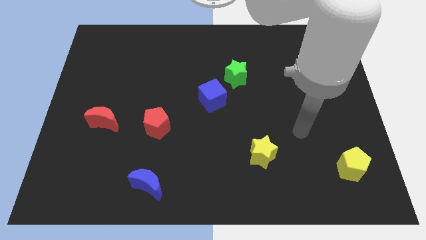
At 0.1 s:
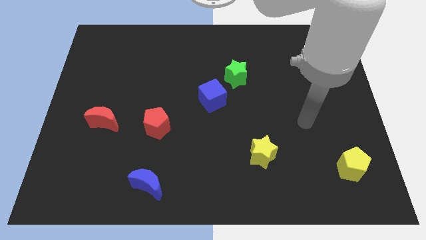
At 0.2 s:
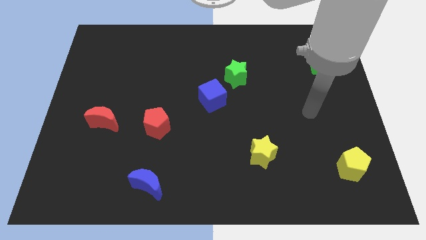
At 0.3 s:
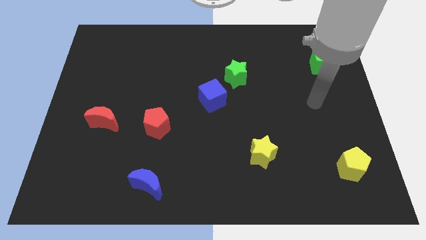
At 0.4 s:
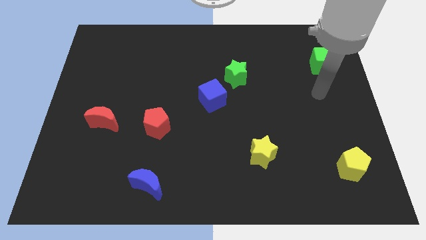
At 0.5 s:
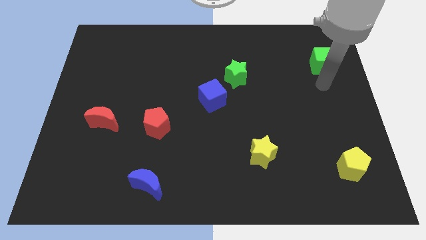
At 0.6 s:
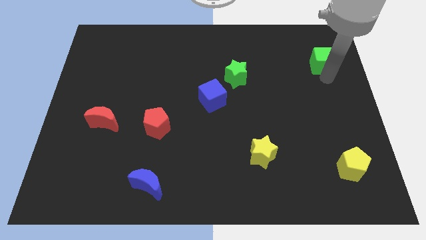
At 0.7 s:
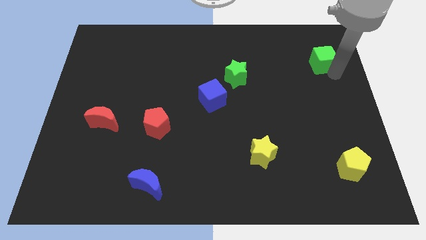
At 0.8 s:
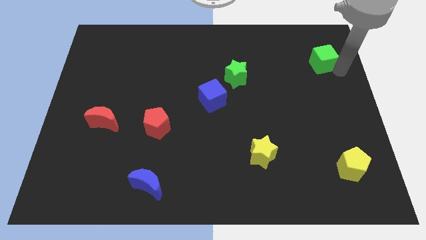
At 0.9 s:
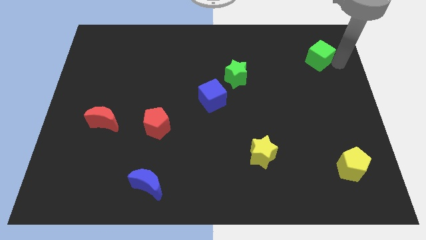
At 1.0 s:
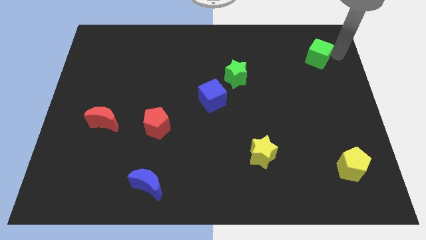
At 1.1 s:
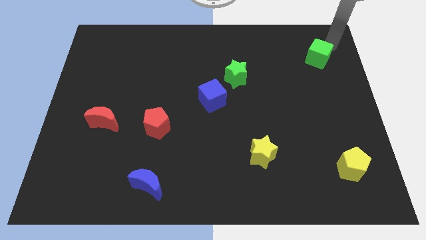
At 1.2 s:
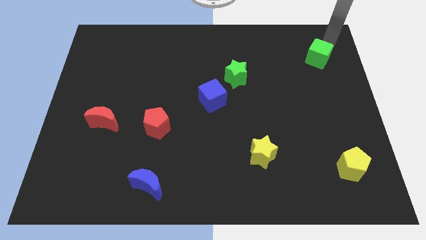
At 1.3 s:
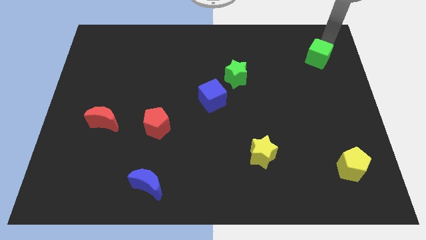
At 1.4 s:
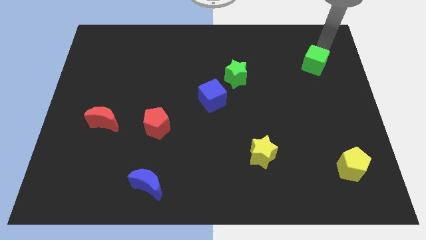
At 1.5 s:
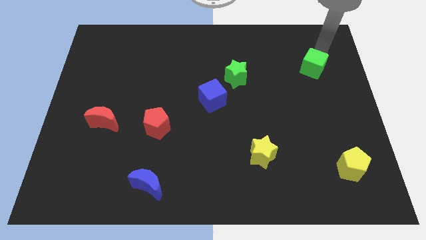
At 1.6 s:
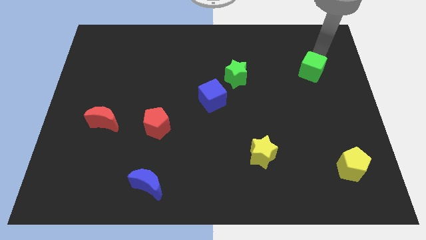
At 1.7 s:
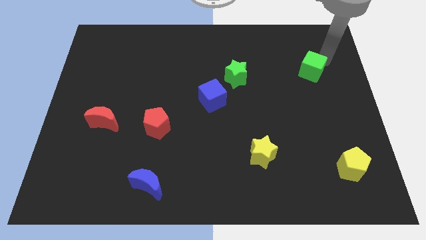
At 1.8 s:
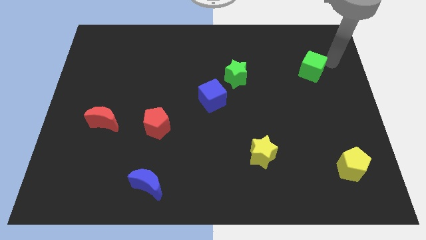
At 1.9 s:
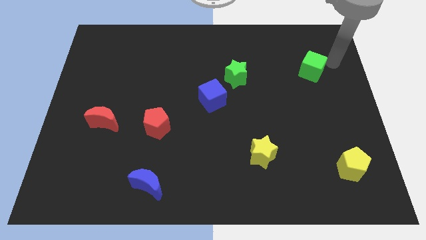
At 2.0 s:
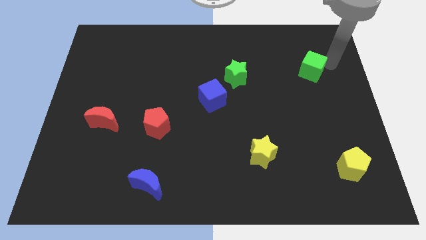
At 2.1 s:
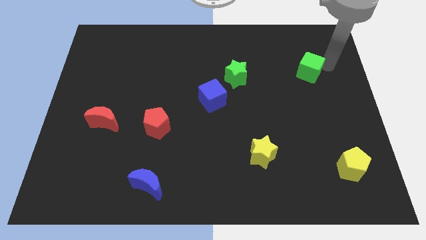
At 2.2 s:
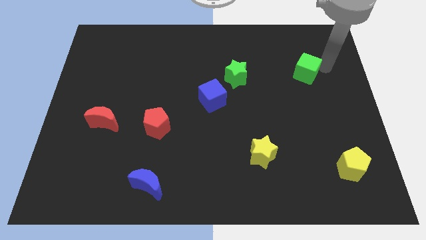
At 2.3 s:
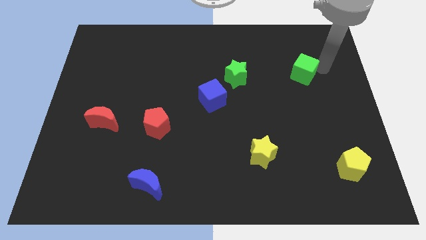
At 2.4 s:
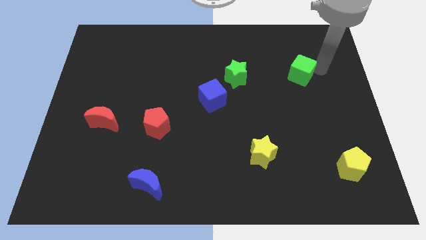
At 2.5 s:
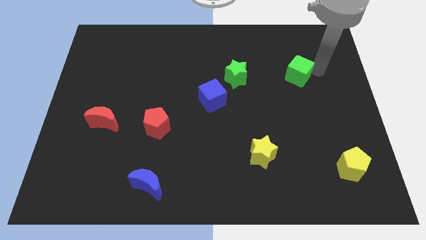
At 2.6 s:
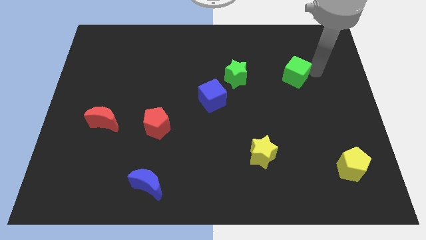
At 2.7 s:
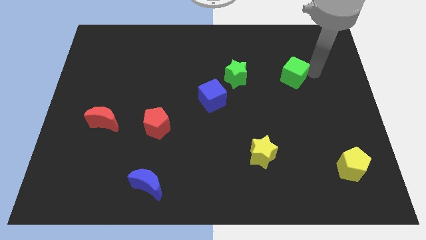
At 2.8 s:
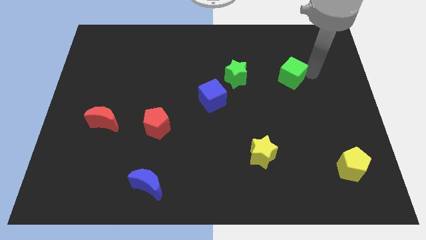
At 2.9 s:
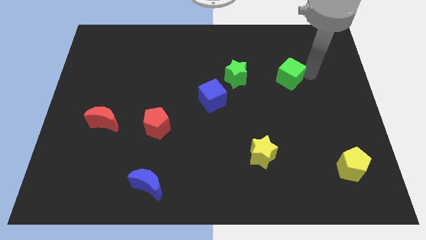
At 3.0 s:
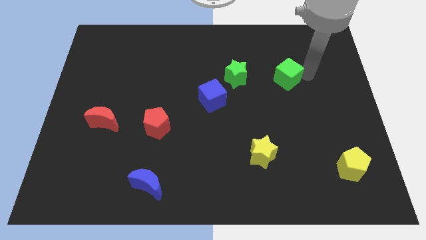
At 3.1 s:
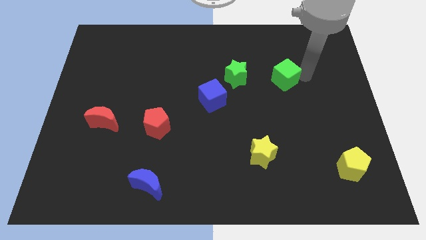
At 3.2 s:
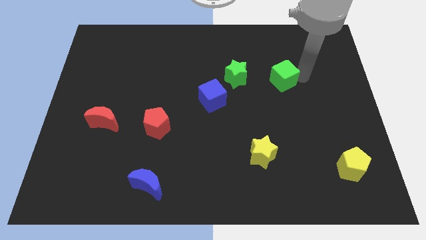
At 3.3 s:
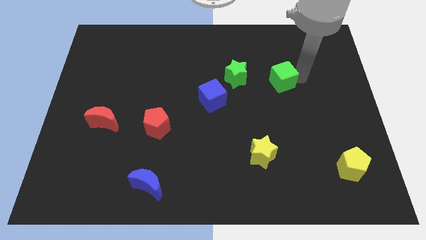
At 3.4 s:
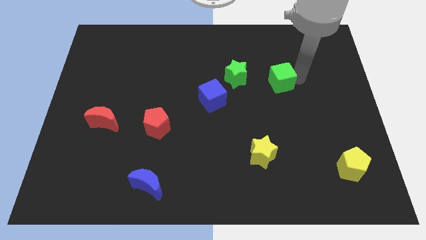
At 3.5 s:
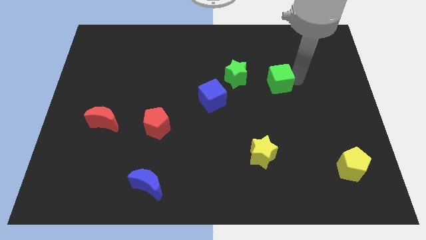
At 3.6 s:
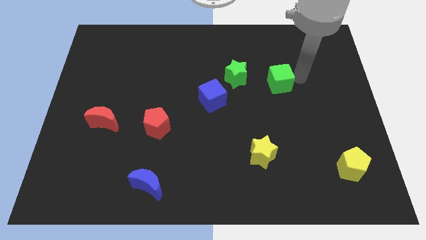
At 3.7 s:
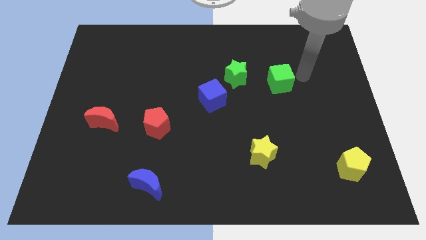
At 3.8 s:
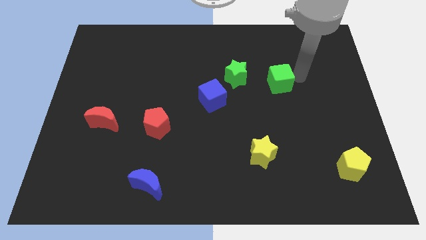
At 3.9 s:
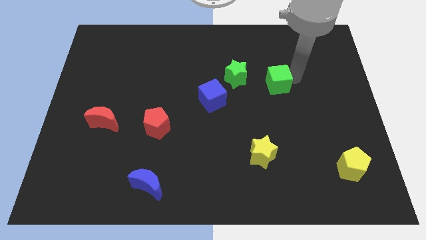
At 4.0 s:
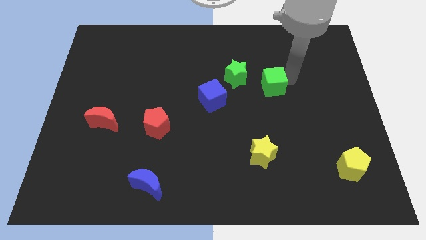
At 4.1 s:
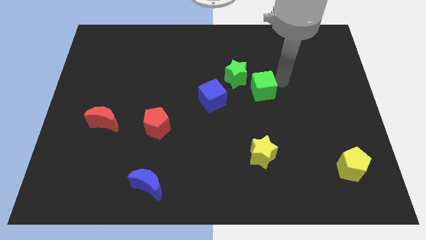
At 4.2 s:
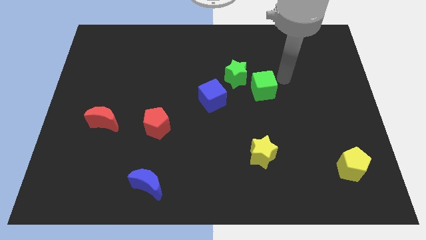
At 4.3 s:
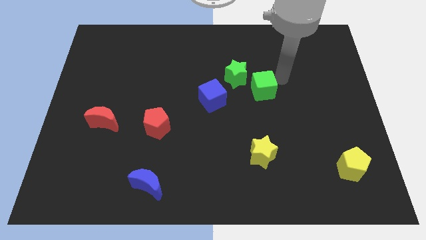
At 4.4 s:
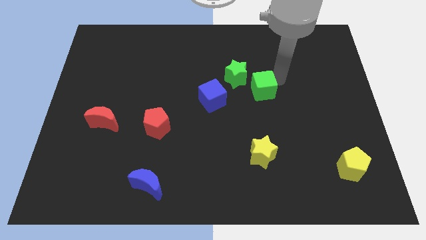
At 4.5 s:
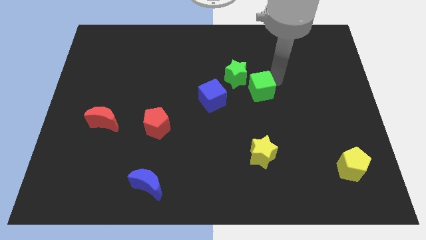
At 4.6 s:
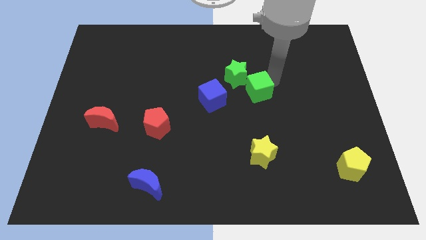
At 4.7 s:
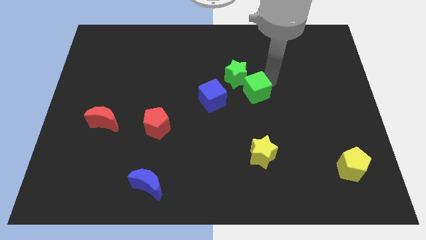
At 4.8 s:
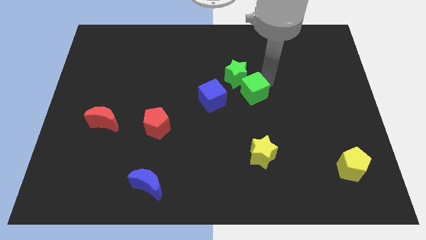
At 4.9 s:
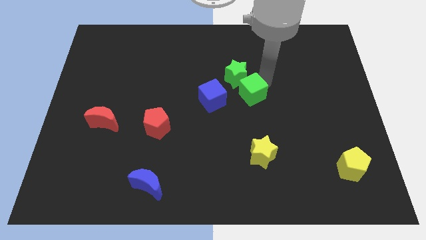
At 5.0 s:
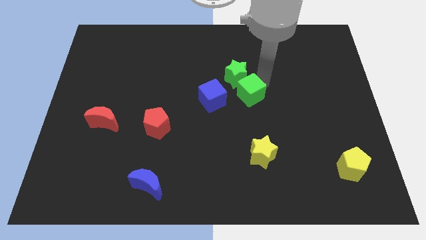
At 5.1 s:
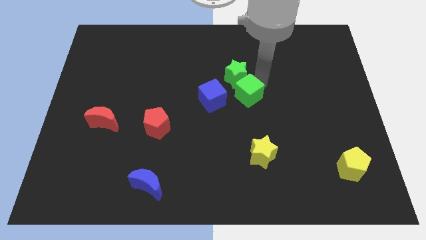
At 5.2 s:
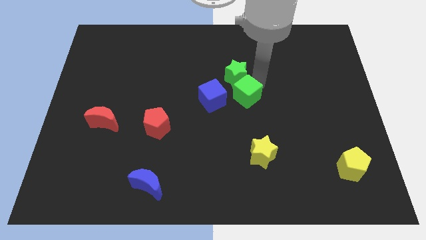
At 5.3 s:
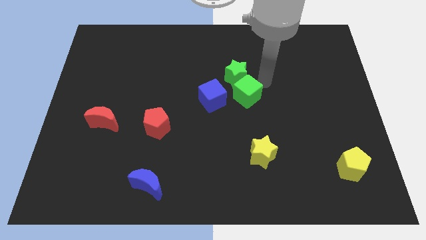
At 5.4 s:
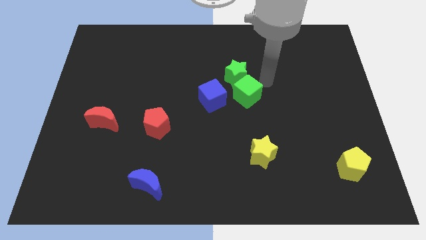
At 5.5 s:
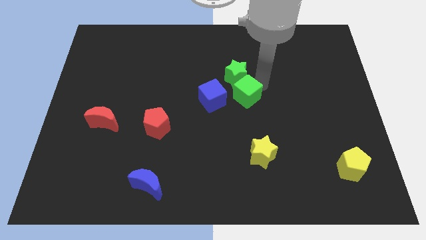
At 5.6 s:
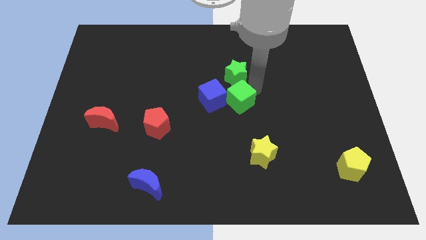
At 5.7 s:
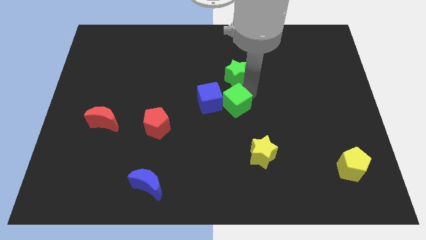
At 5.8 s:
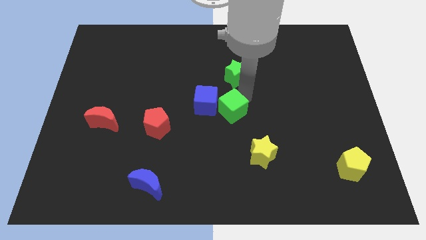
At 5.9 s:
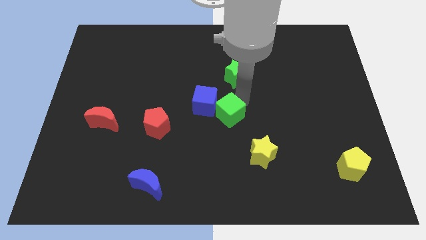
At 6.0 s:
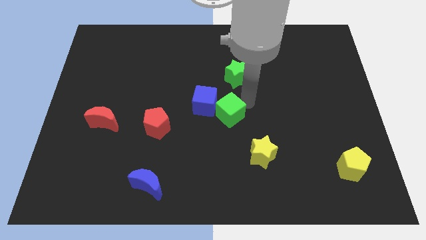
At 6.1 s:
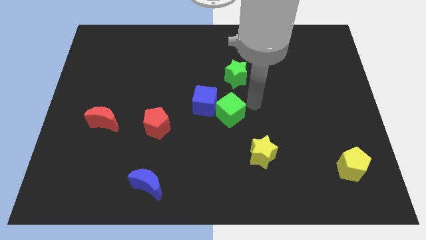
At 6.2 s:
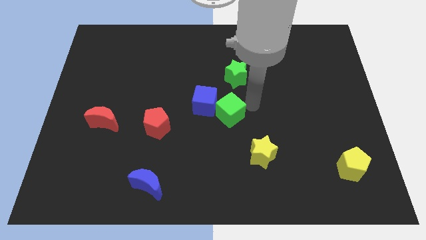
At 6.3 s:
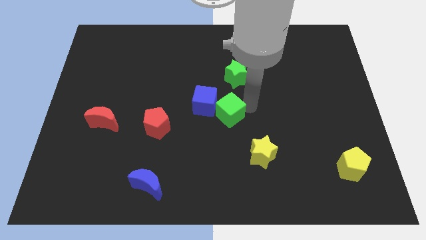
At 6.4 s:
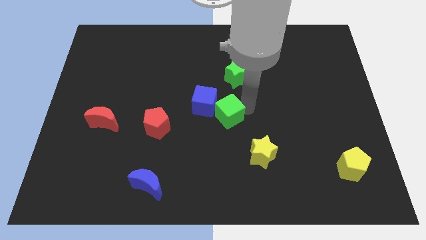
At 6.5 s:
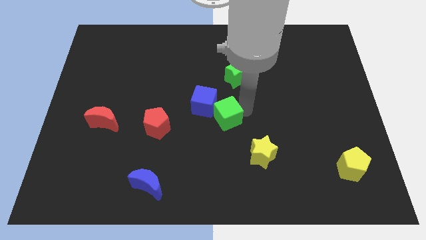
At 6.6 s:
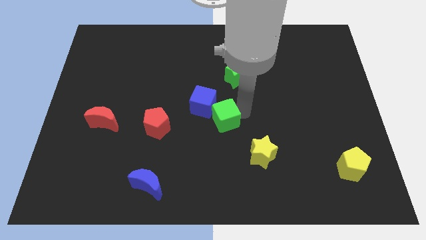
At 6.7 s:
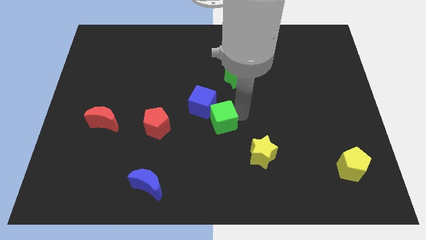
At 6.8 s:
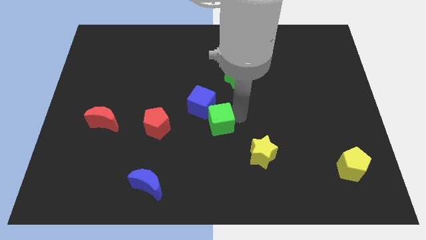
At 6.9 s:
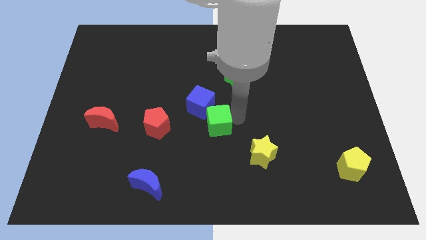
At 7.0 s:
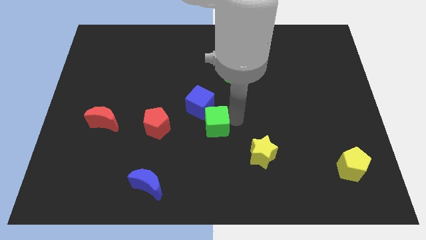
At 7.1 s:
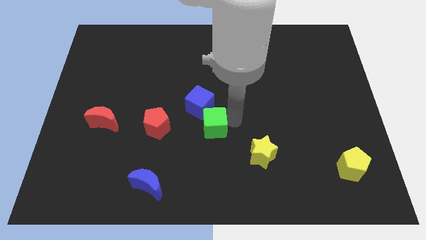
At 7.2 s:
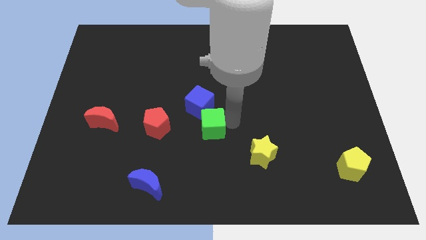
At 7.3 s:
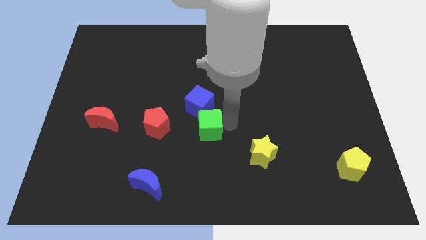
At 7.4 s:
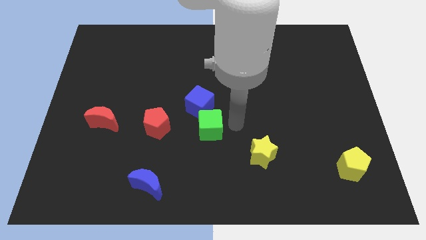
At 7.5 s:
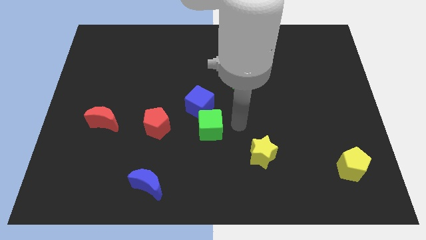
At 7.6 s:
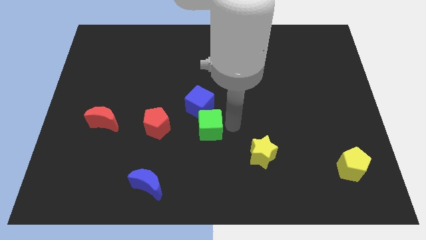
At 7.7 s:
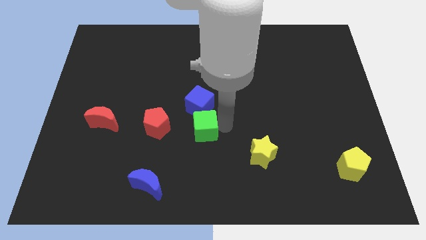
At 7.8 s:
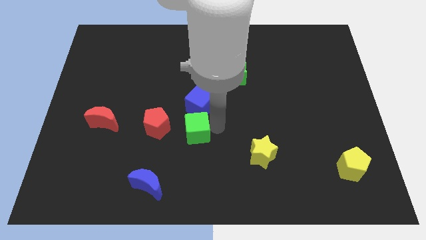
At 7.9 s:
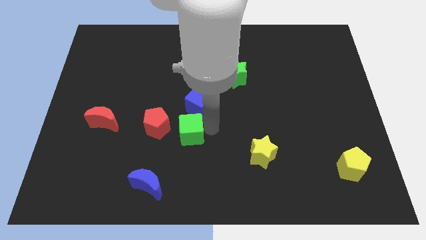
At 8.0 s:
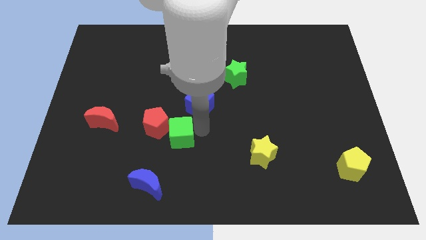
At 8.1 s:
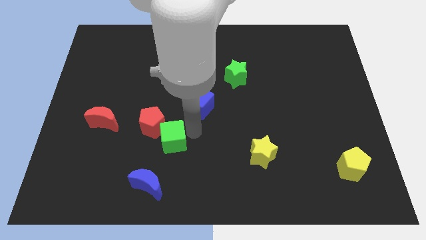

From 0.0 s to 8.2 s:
slide the green cube to the top side of the blue moon
